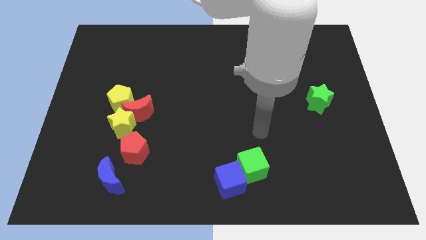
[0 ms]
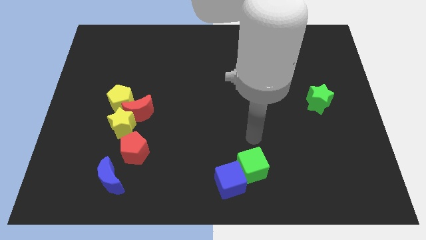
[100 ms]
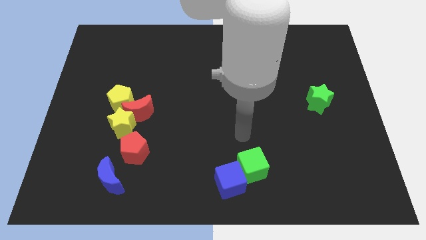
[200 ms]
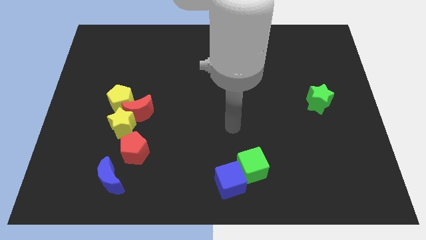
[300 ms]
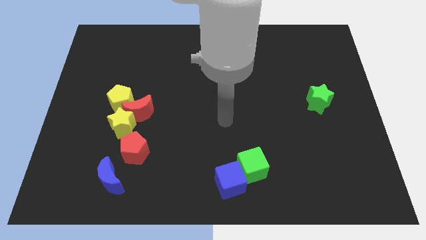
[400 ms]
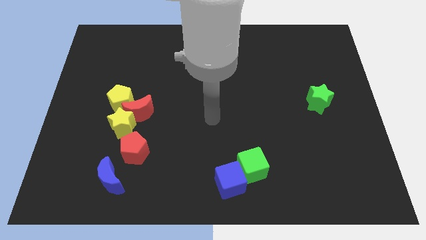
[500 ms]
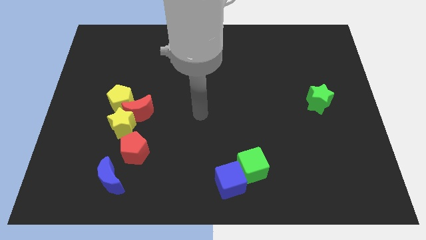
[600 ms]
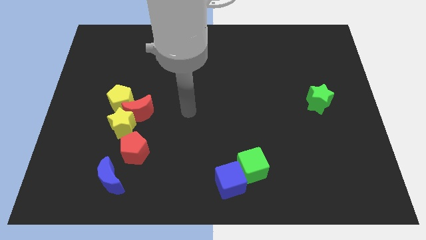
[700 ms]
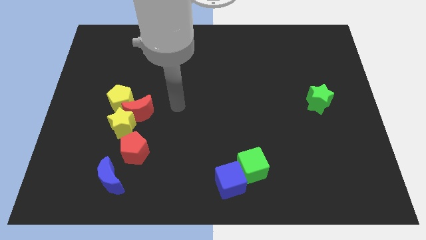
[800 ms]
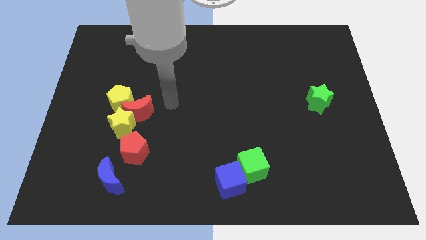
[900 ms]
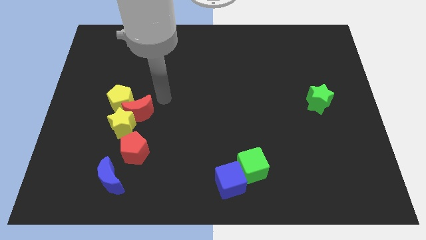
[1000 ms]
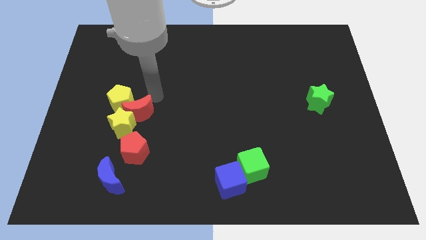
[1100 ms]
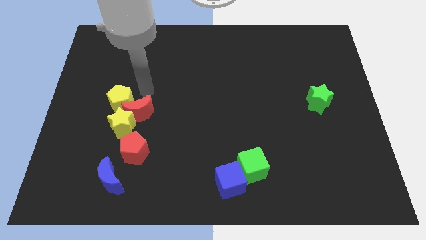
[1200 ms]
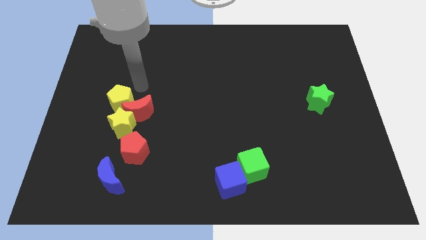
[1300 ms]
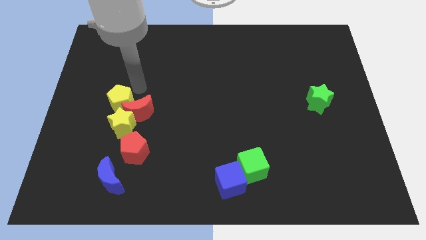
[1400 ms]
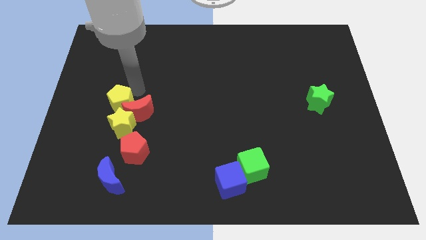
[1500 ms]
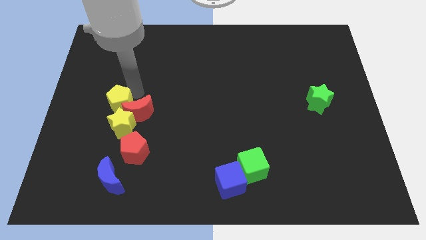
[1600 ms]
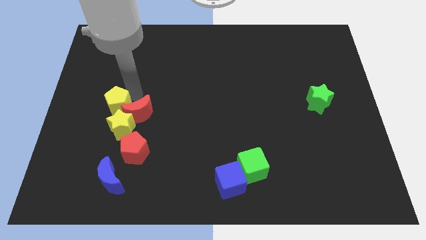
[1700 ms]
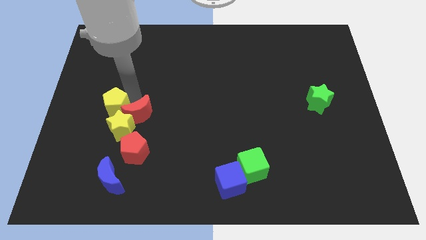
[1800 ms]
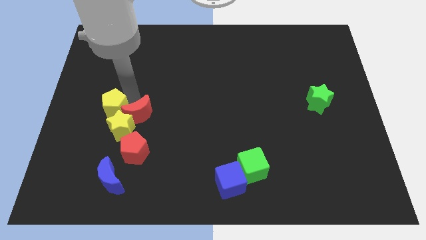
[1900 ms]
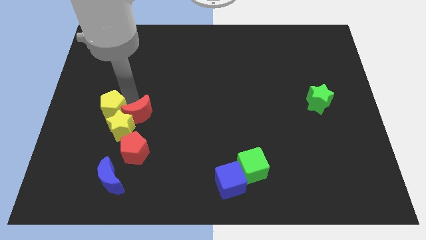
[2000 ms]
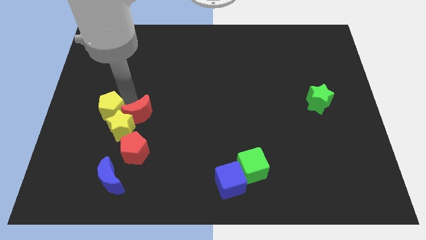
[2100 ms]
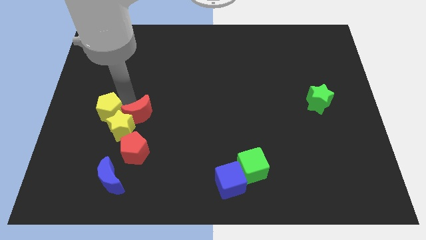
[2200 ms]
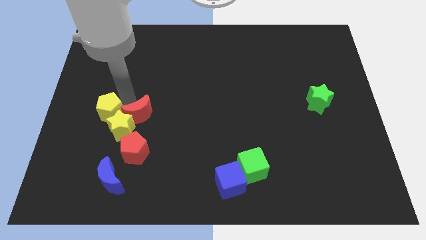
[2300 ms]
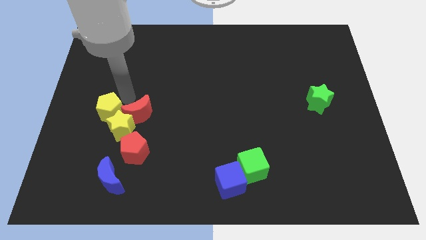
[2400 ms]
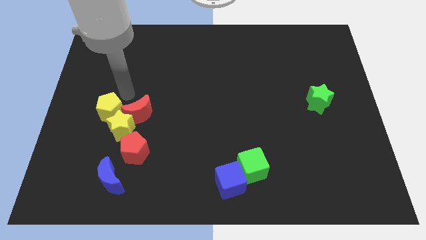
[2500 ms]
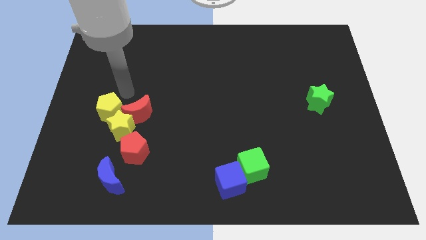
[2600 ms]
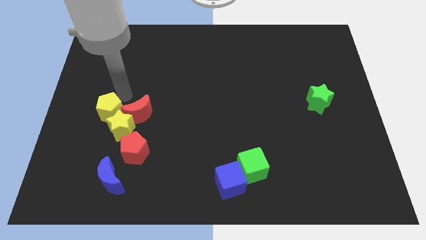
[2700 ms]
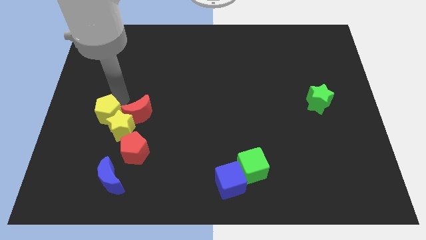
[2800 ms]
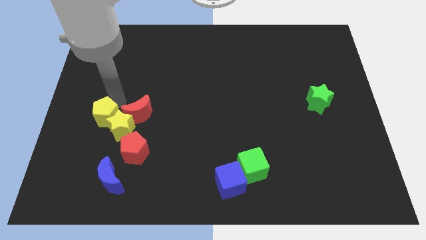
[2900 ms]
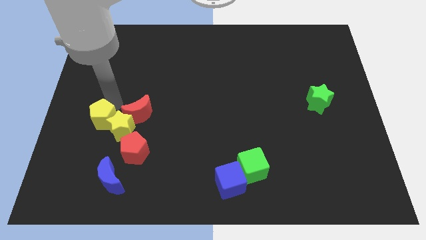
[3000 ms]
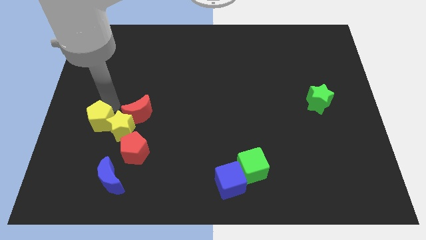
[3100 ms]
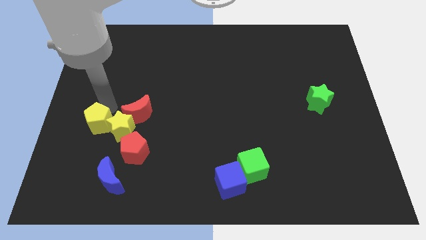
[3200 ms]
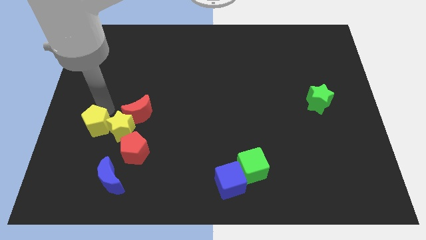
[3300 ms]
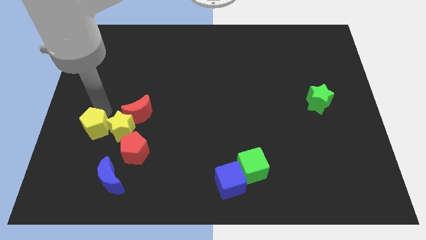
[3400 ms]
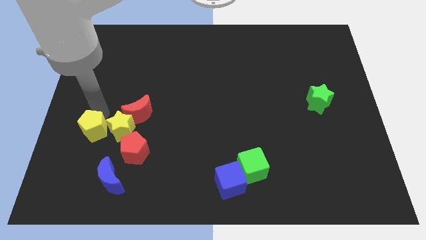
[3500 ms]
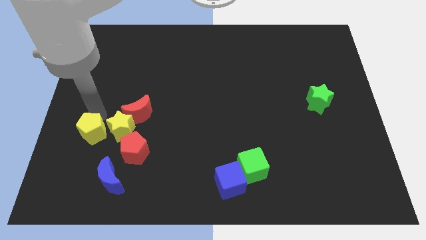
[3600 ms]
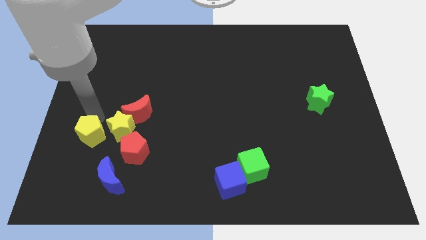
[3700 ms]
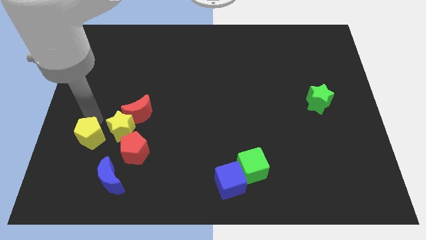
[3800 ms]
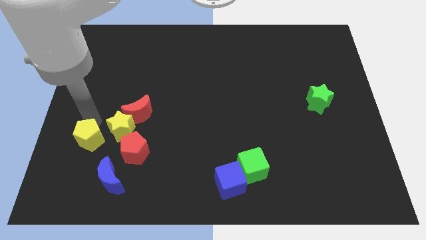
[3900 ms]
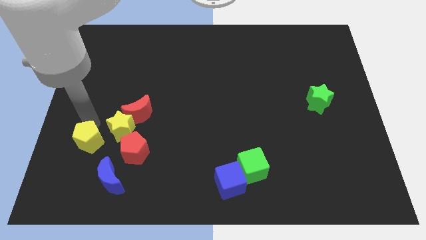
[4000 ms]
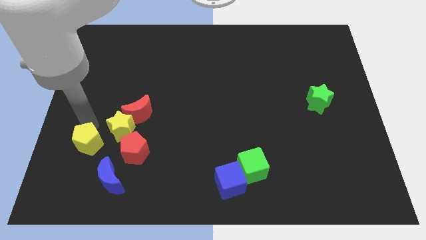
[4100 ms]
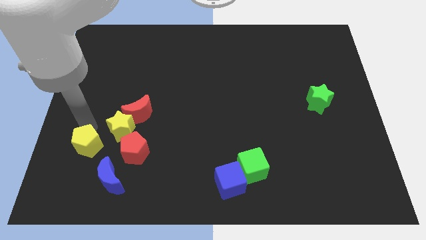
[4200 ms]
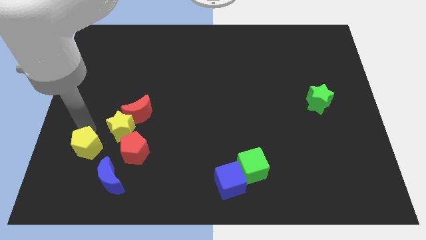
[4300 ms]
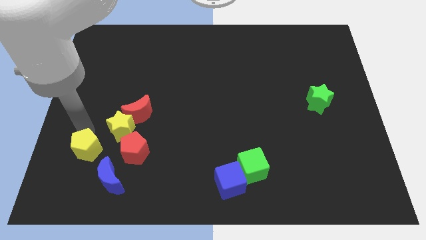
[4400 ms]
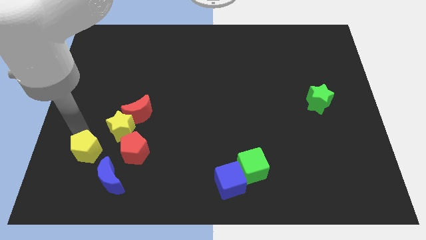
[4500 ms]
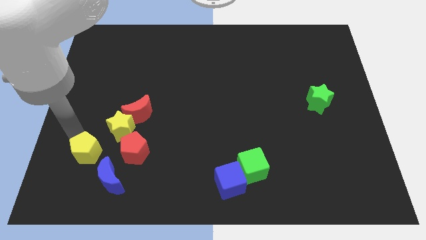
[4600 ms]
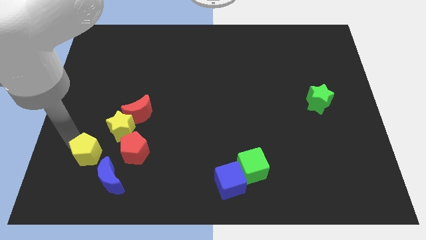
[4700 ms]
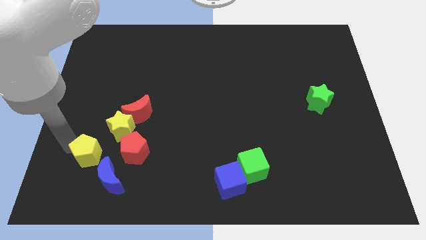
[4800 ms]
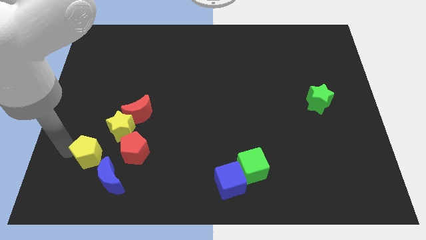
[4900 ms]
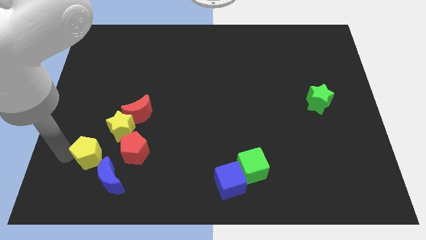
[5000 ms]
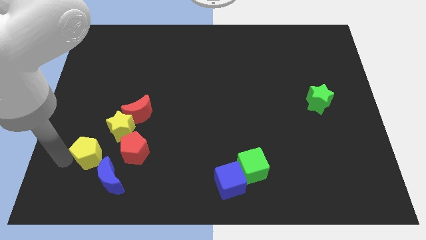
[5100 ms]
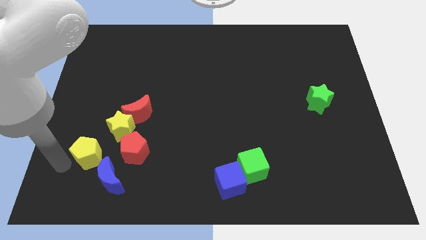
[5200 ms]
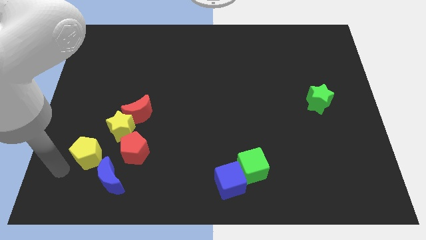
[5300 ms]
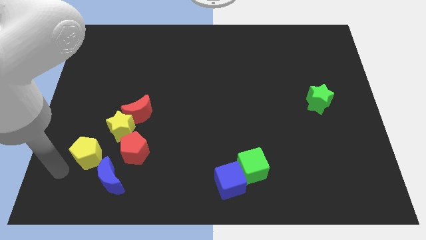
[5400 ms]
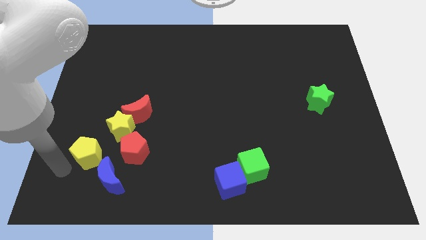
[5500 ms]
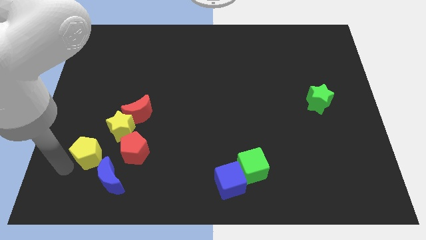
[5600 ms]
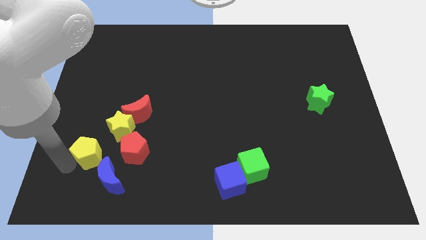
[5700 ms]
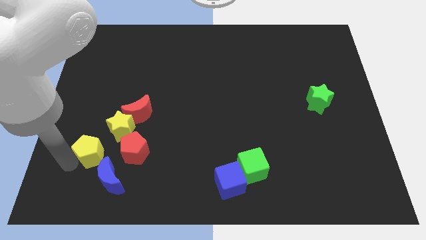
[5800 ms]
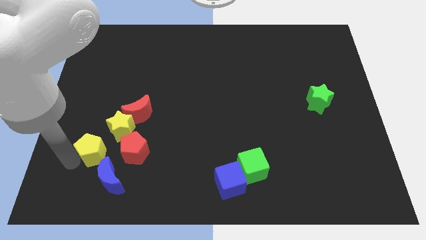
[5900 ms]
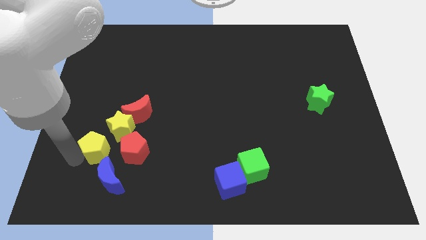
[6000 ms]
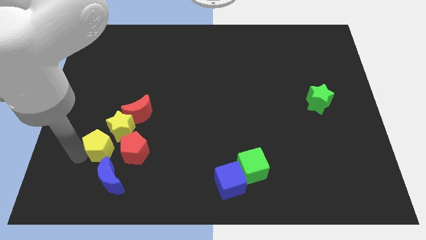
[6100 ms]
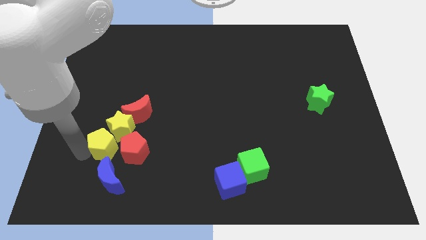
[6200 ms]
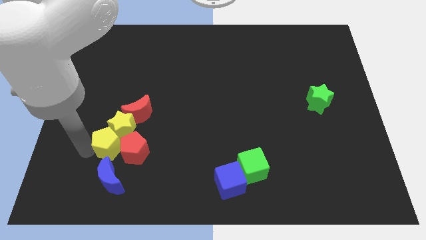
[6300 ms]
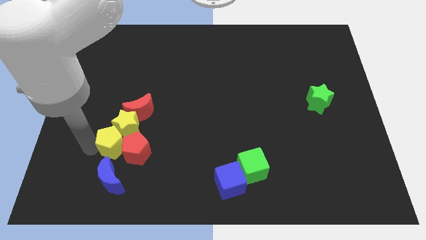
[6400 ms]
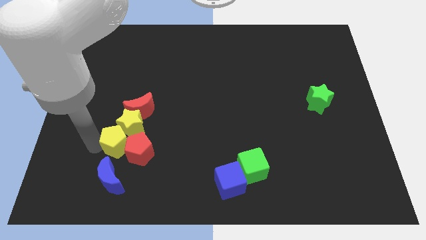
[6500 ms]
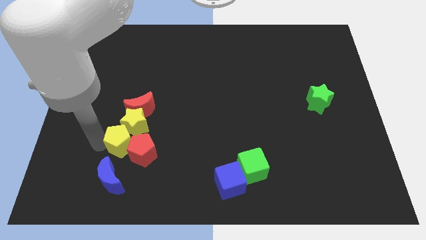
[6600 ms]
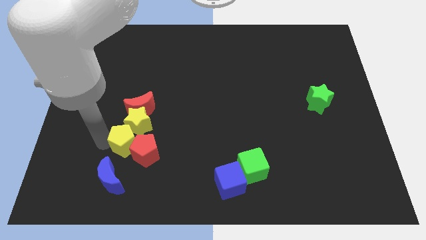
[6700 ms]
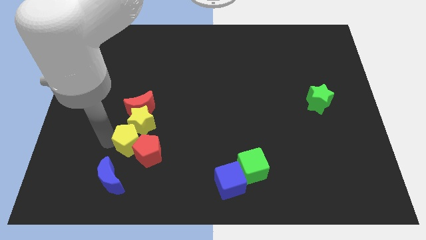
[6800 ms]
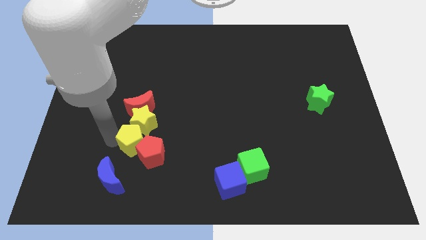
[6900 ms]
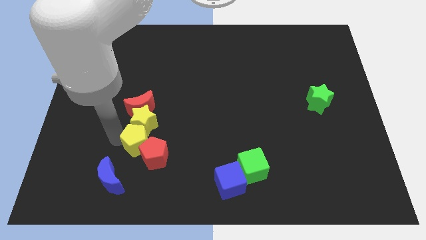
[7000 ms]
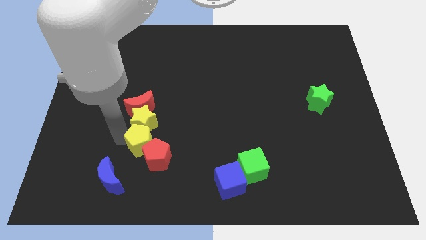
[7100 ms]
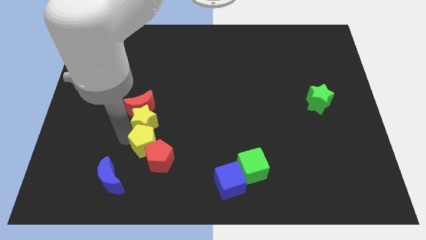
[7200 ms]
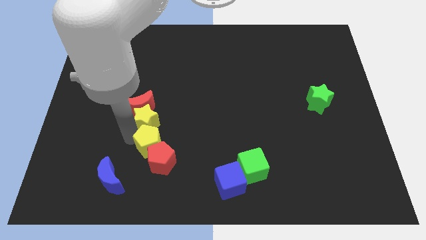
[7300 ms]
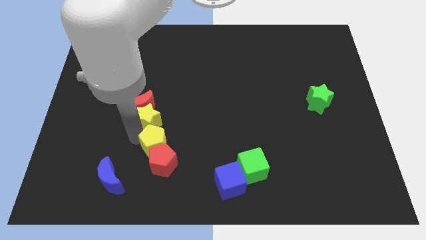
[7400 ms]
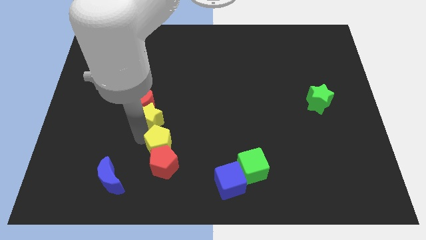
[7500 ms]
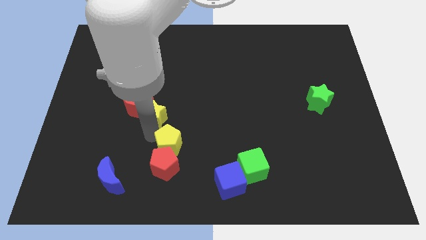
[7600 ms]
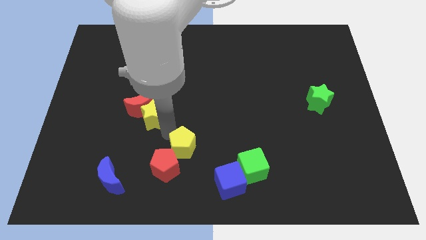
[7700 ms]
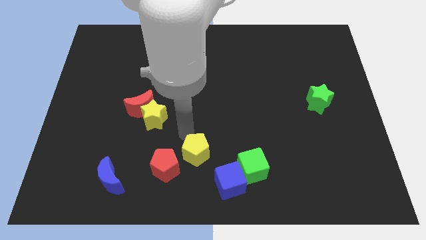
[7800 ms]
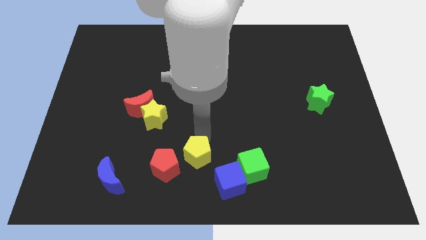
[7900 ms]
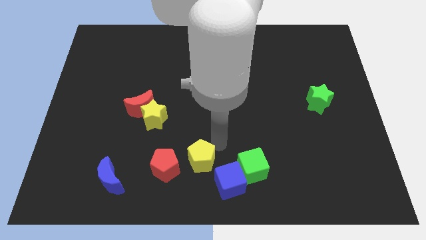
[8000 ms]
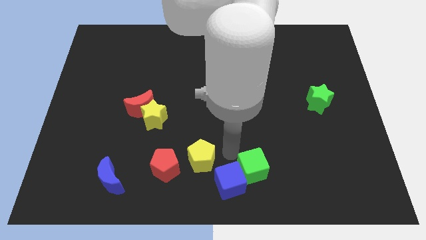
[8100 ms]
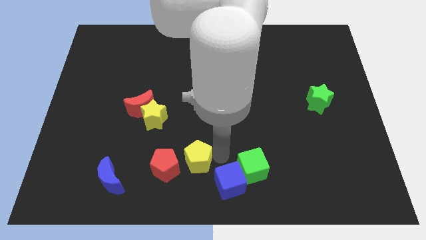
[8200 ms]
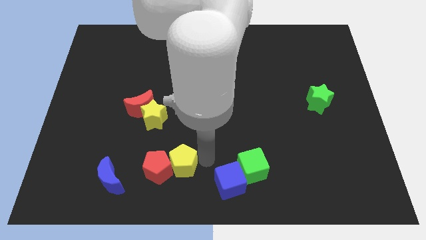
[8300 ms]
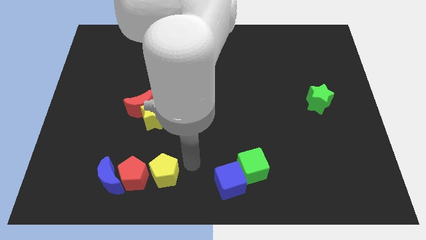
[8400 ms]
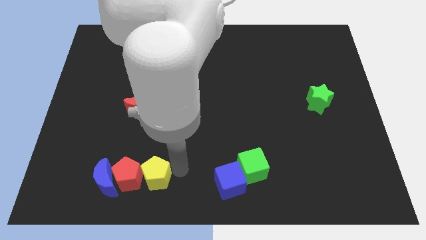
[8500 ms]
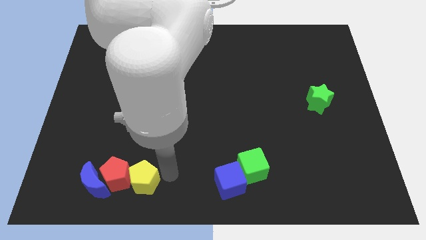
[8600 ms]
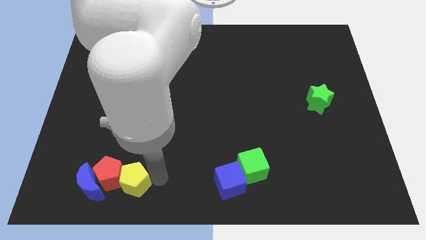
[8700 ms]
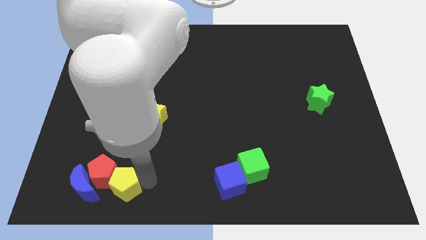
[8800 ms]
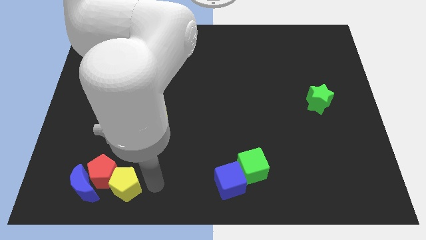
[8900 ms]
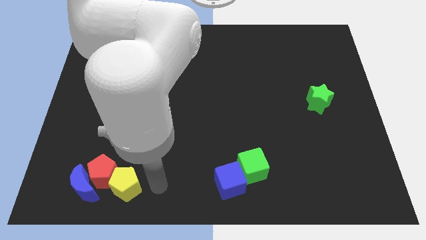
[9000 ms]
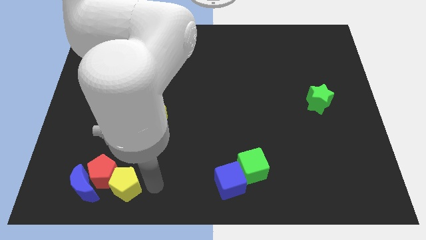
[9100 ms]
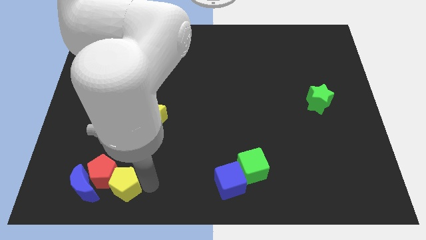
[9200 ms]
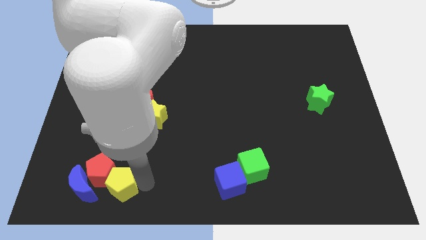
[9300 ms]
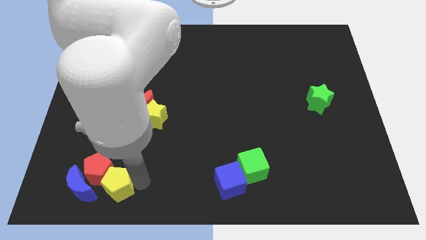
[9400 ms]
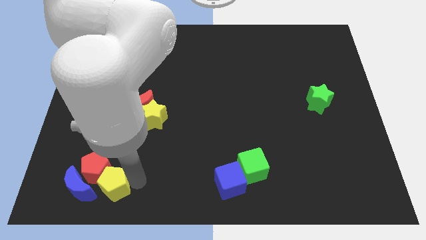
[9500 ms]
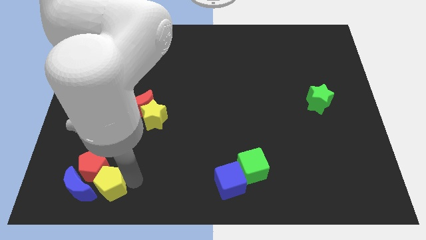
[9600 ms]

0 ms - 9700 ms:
move the yellow pentagon next to the blue moon
